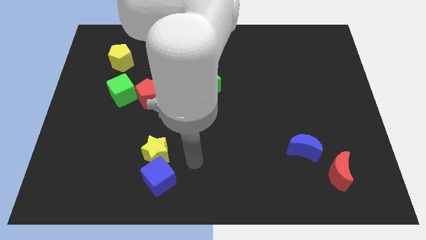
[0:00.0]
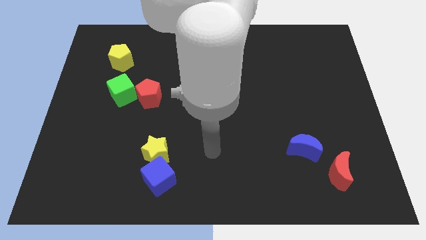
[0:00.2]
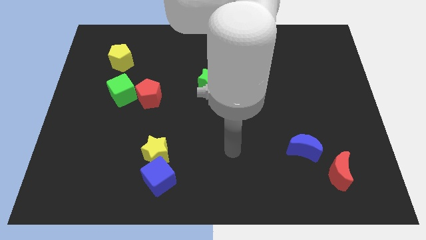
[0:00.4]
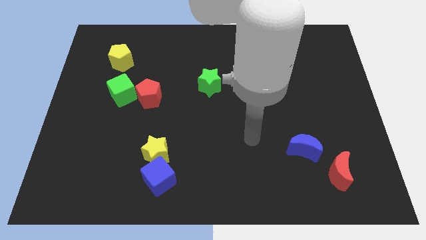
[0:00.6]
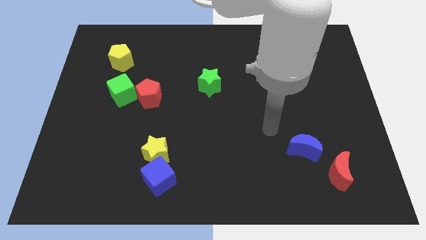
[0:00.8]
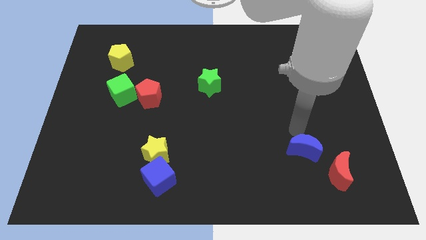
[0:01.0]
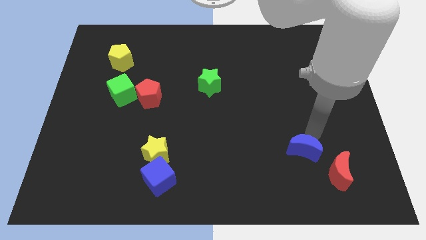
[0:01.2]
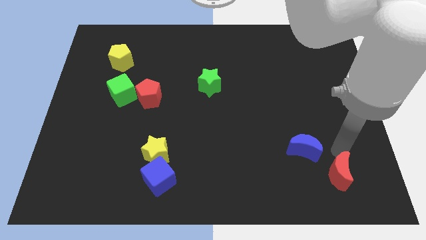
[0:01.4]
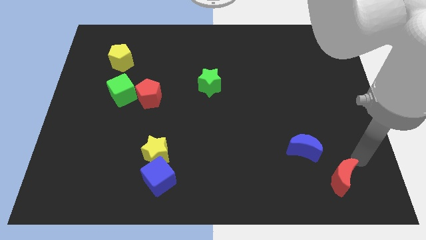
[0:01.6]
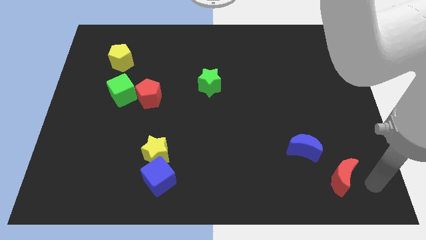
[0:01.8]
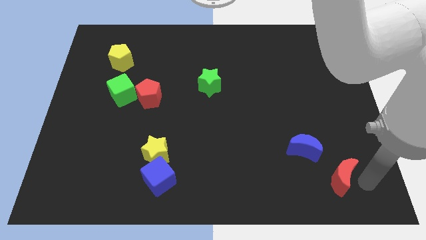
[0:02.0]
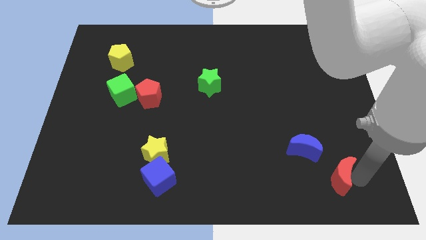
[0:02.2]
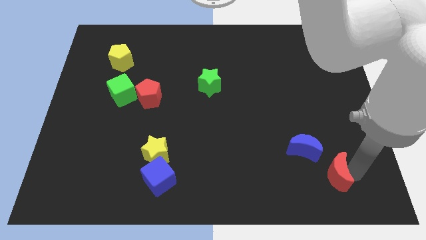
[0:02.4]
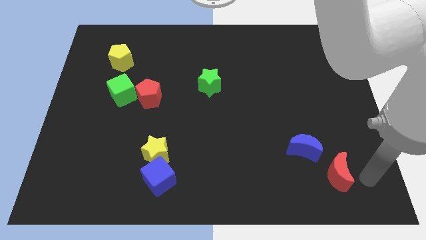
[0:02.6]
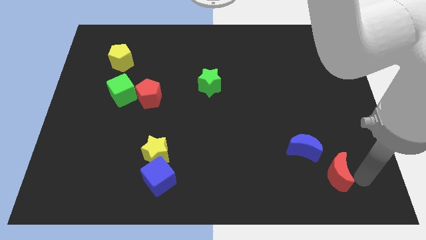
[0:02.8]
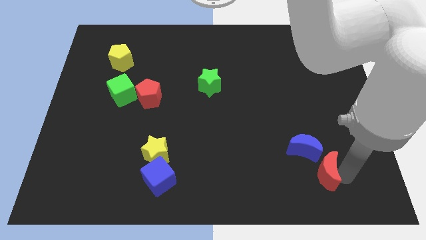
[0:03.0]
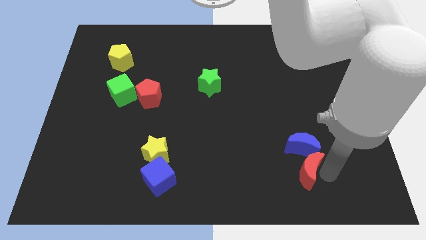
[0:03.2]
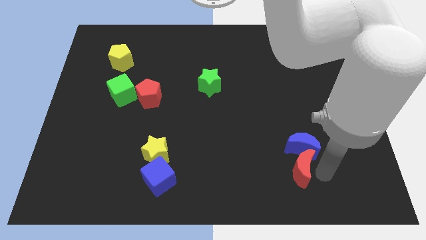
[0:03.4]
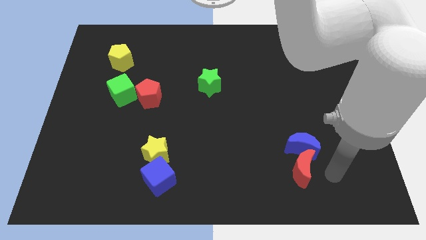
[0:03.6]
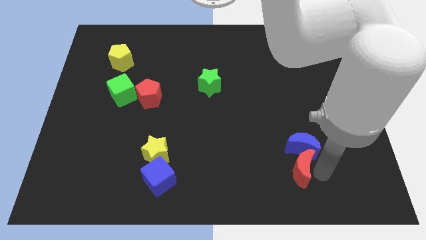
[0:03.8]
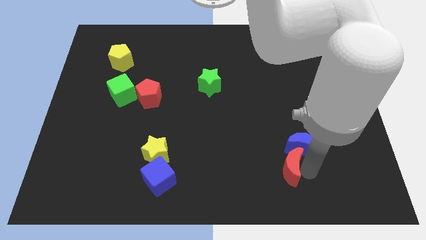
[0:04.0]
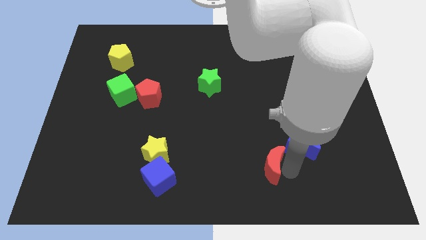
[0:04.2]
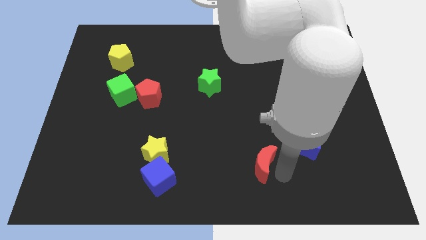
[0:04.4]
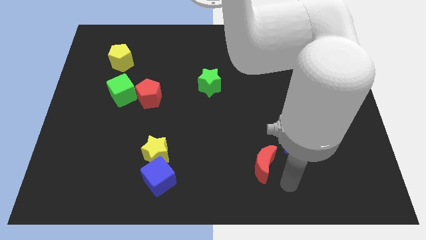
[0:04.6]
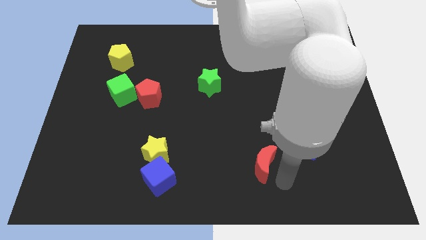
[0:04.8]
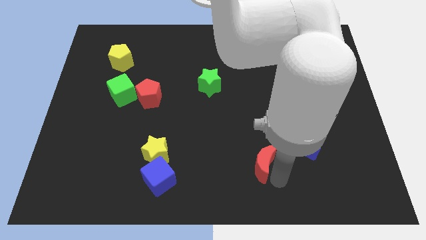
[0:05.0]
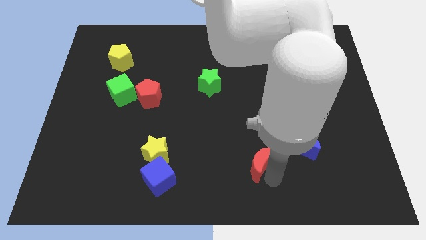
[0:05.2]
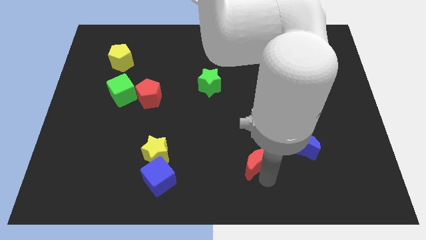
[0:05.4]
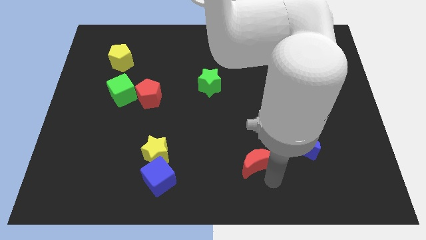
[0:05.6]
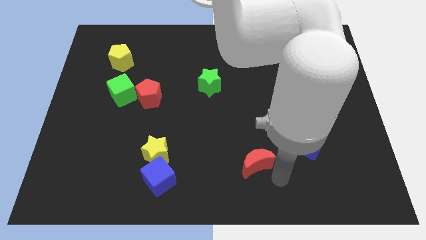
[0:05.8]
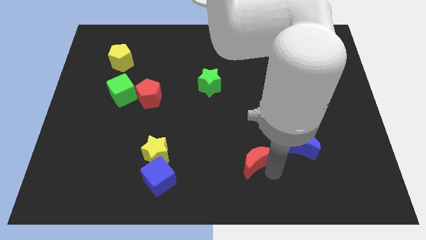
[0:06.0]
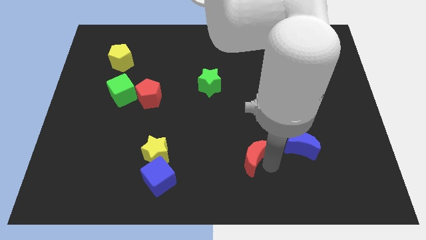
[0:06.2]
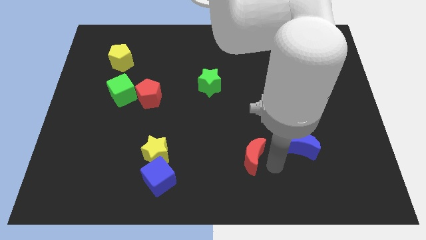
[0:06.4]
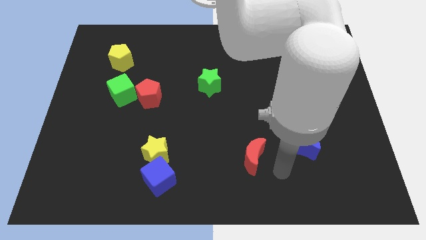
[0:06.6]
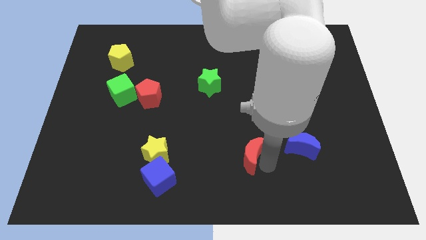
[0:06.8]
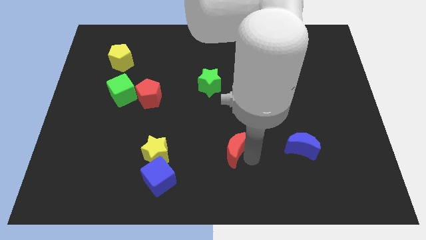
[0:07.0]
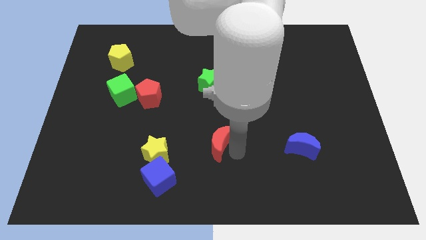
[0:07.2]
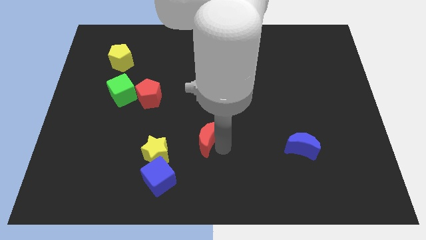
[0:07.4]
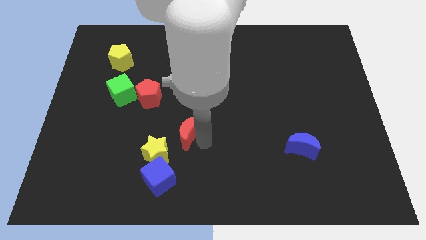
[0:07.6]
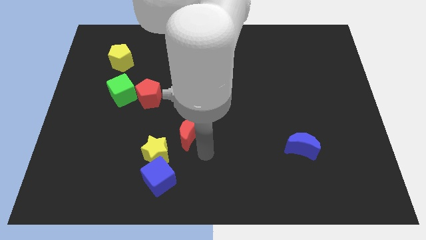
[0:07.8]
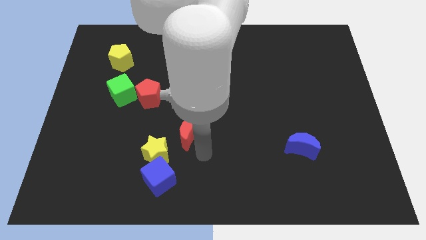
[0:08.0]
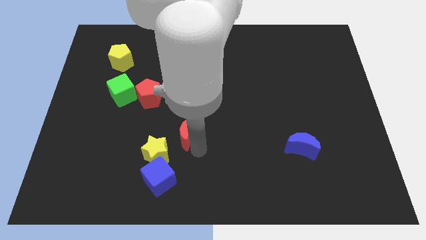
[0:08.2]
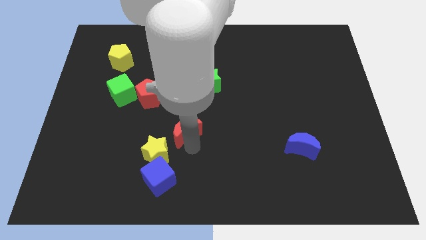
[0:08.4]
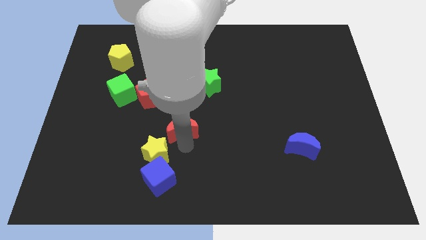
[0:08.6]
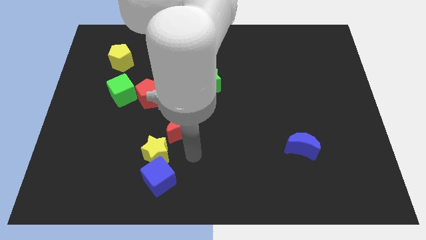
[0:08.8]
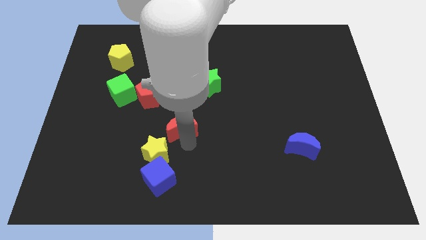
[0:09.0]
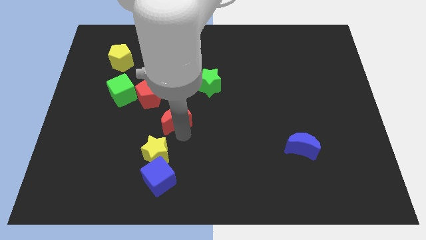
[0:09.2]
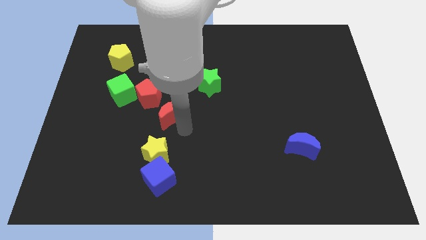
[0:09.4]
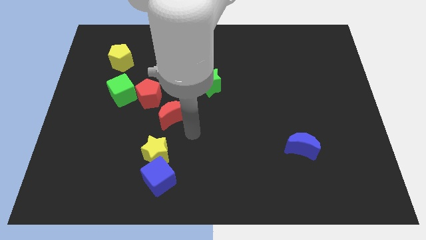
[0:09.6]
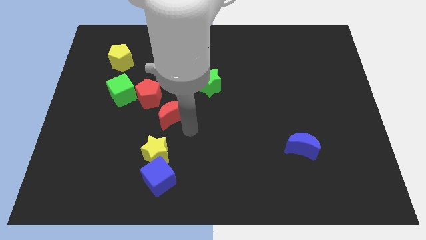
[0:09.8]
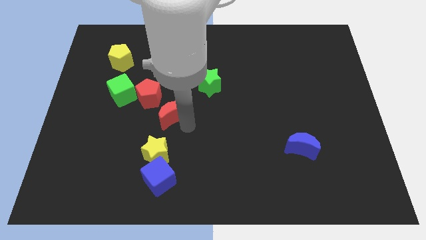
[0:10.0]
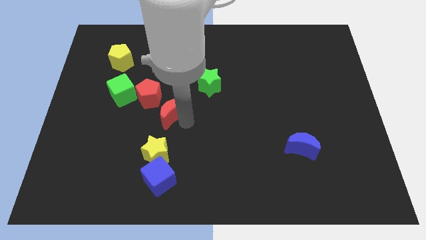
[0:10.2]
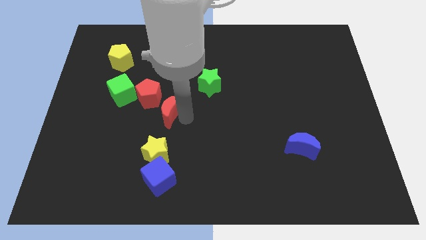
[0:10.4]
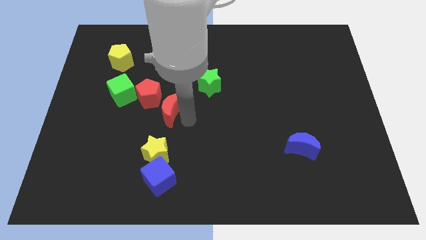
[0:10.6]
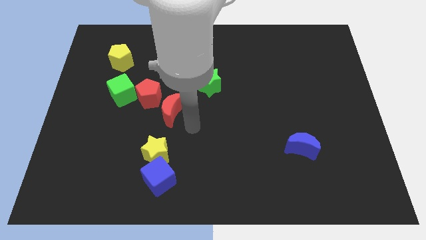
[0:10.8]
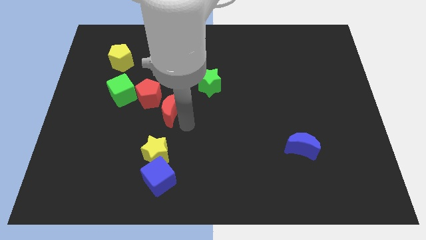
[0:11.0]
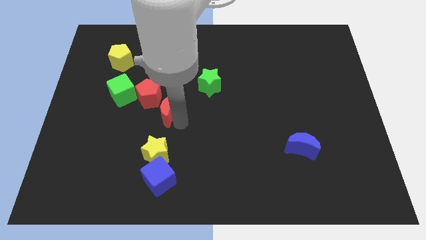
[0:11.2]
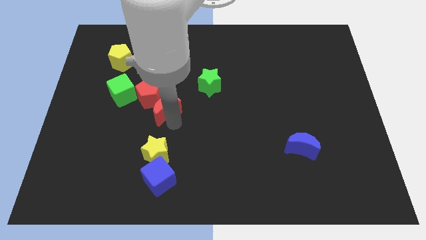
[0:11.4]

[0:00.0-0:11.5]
put the red moon close to the red pentagon

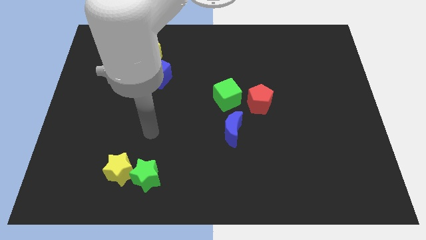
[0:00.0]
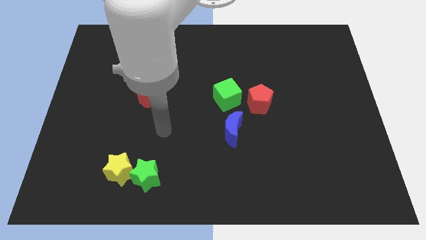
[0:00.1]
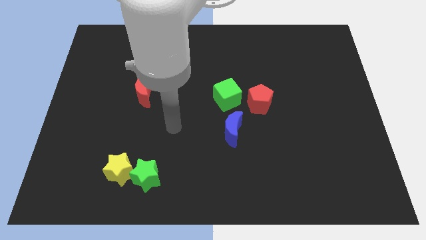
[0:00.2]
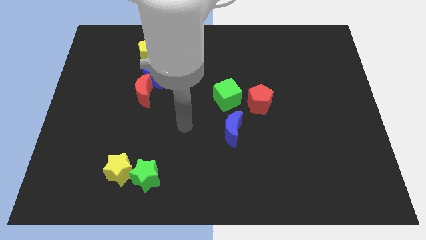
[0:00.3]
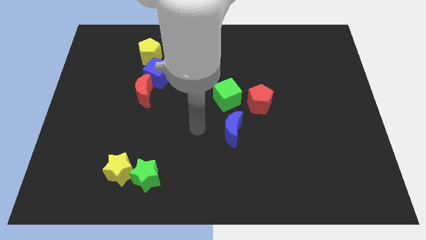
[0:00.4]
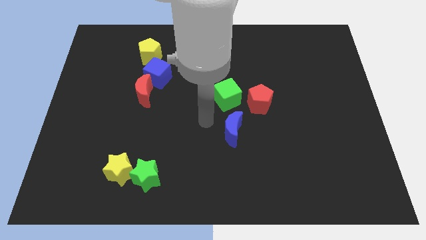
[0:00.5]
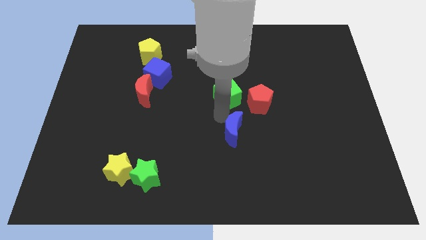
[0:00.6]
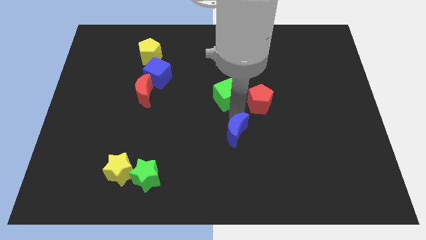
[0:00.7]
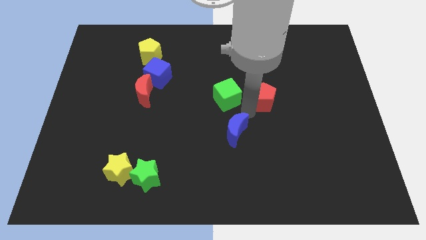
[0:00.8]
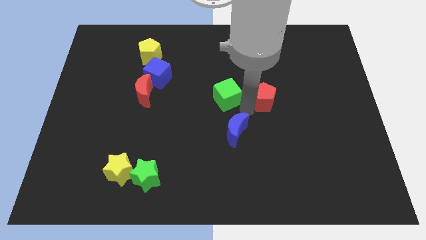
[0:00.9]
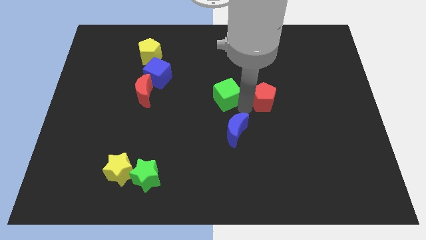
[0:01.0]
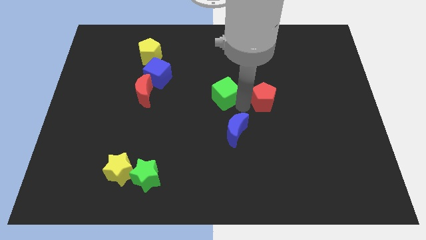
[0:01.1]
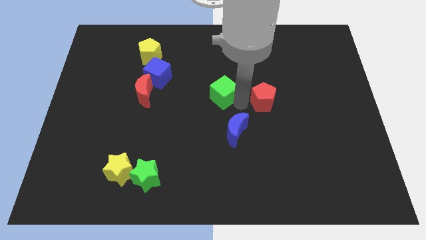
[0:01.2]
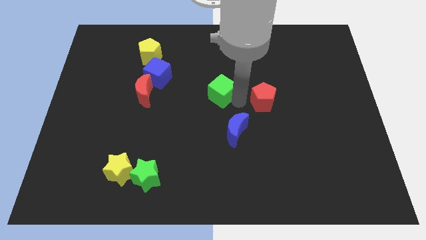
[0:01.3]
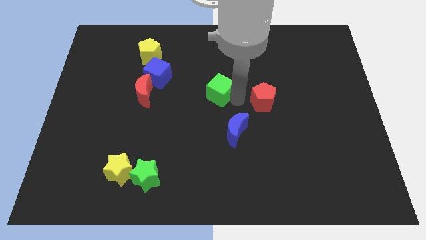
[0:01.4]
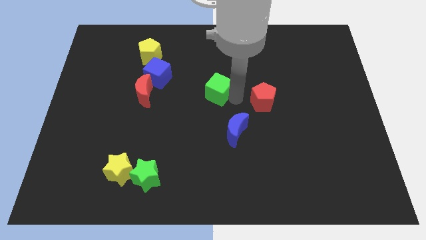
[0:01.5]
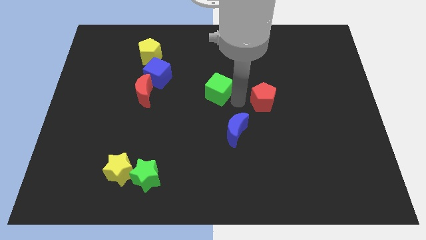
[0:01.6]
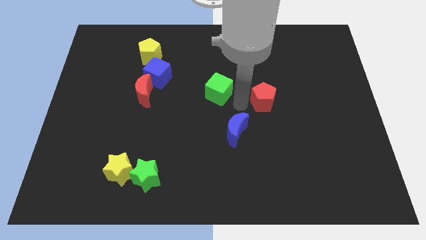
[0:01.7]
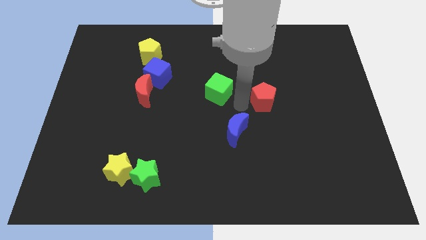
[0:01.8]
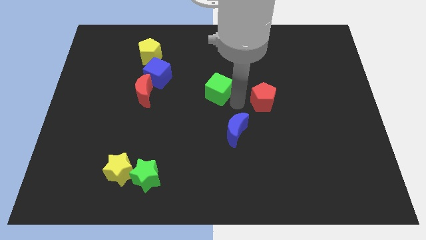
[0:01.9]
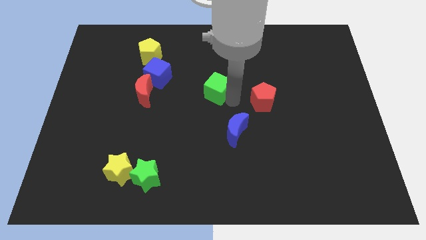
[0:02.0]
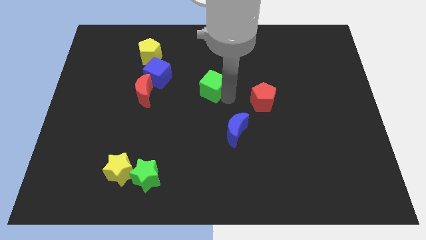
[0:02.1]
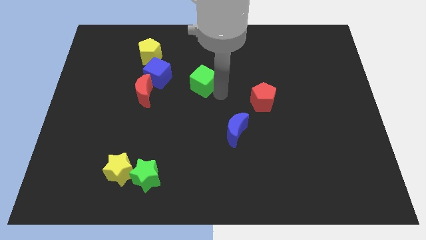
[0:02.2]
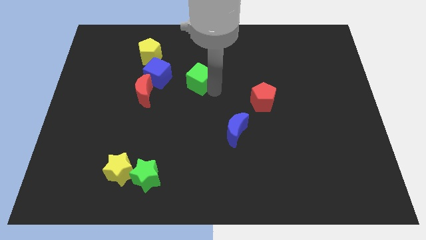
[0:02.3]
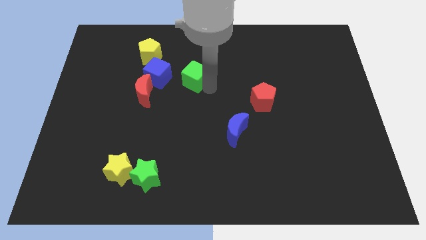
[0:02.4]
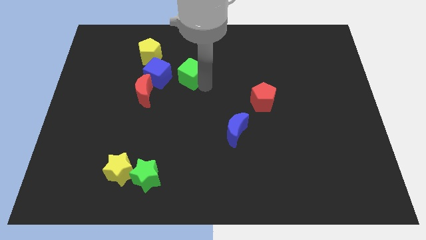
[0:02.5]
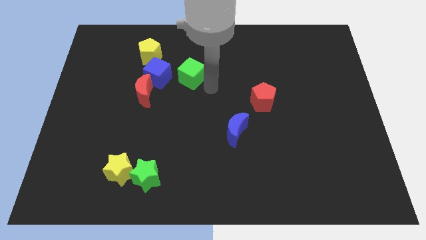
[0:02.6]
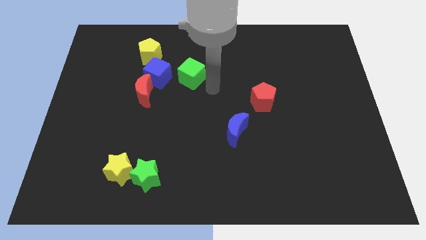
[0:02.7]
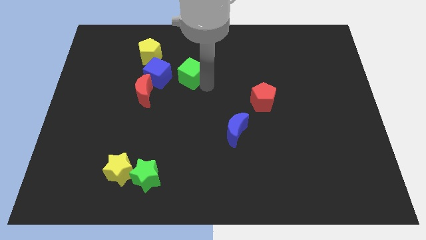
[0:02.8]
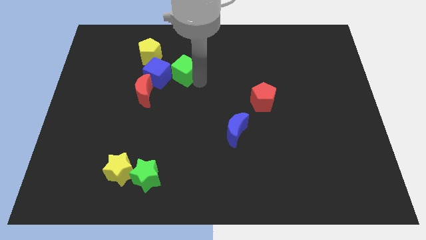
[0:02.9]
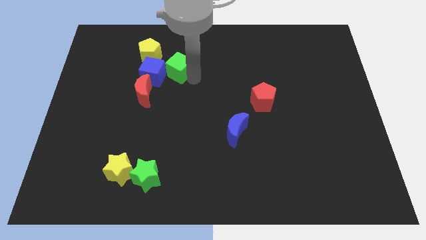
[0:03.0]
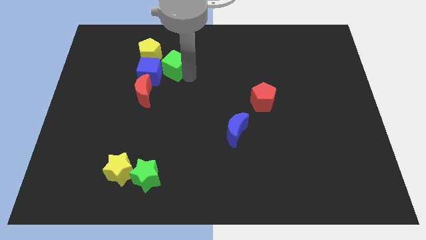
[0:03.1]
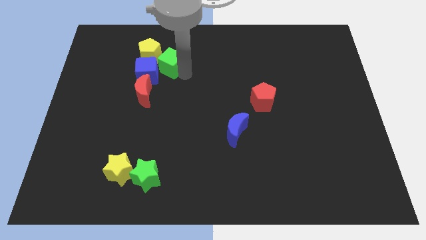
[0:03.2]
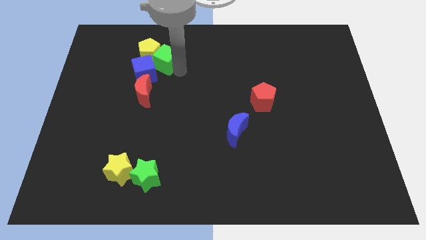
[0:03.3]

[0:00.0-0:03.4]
move the green cube towards the yellow pentagon
